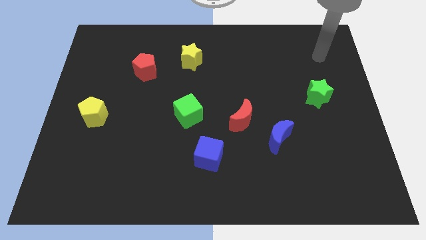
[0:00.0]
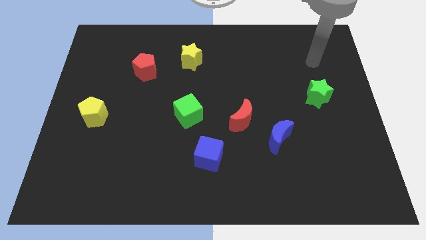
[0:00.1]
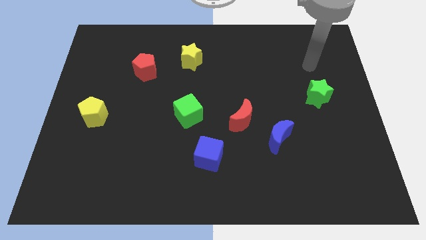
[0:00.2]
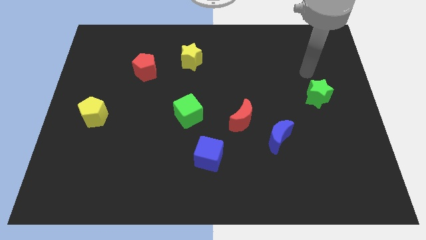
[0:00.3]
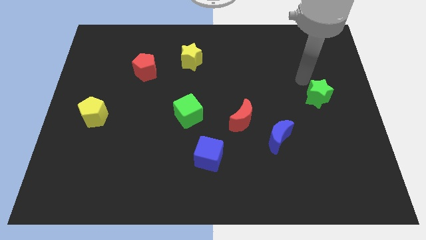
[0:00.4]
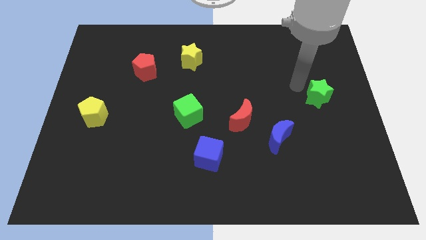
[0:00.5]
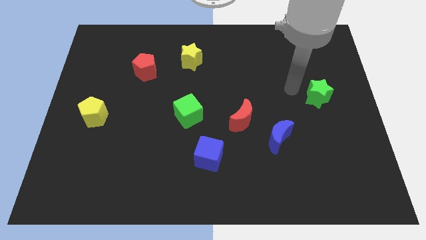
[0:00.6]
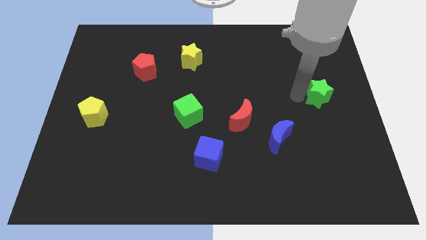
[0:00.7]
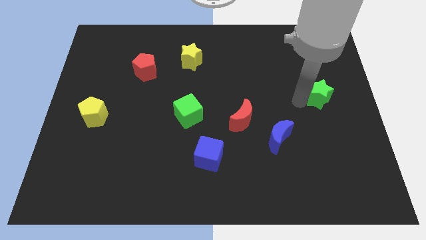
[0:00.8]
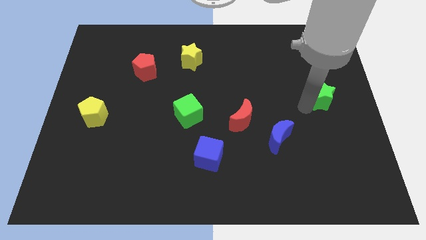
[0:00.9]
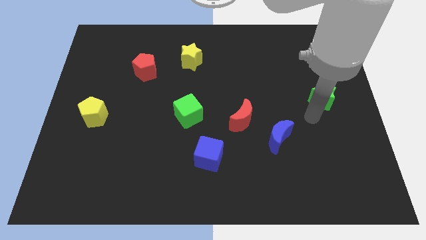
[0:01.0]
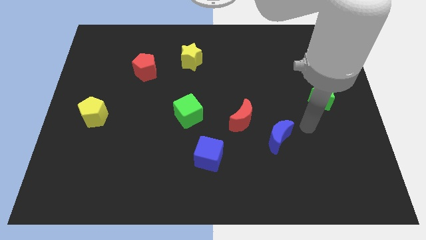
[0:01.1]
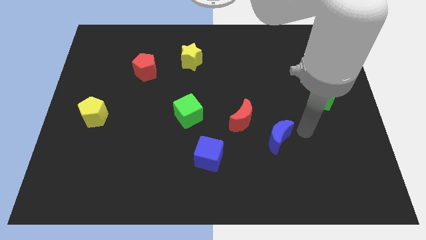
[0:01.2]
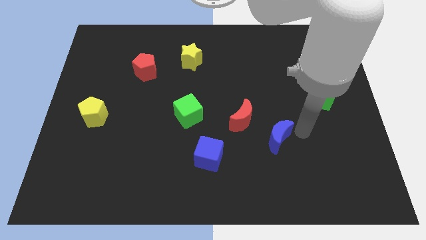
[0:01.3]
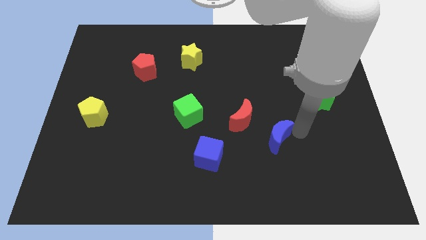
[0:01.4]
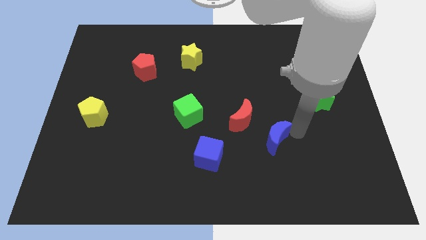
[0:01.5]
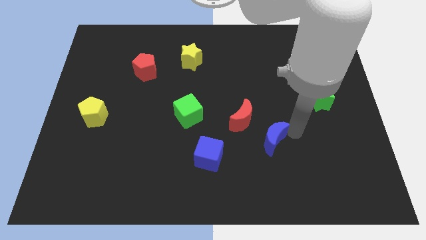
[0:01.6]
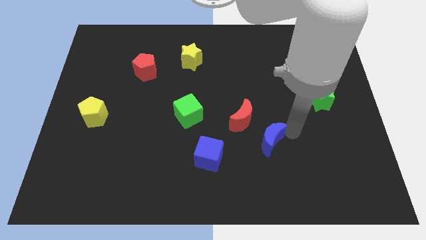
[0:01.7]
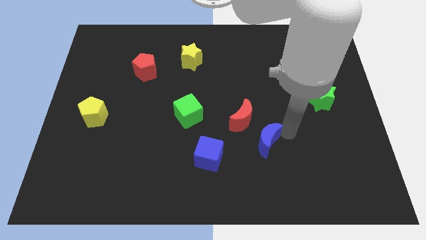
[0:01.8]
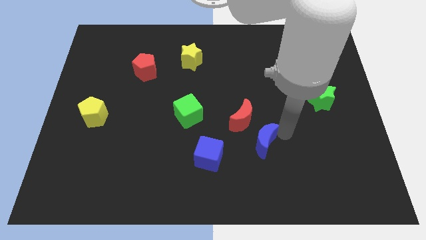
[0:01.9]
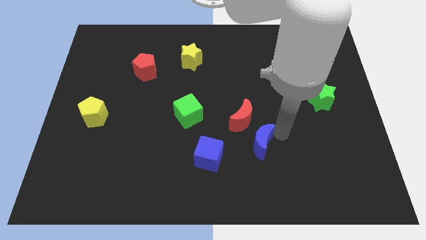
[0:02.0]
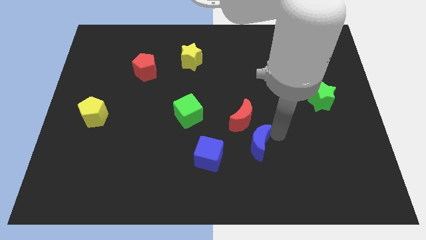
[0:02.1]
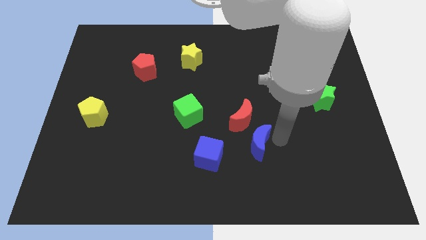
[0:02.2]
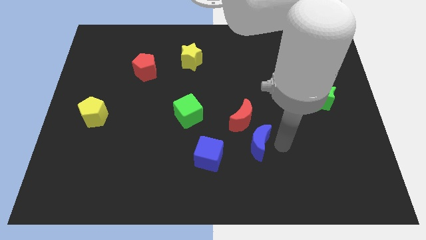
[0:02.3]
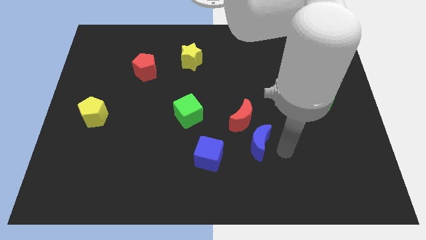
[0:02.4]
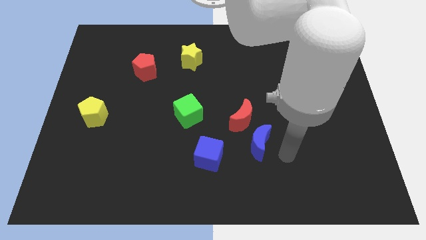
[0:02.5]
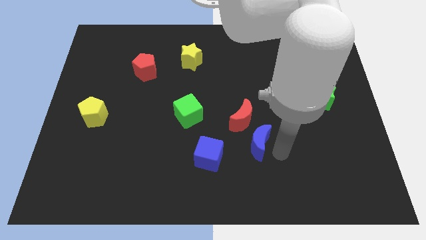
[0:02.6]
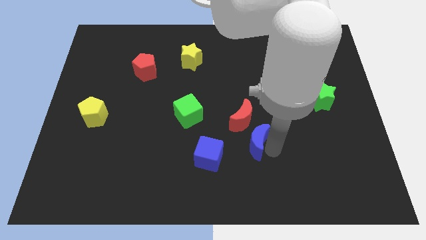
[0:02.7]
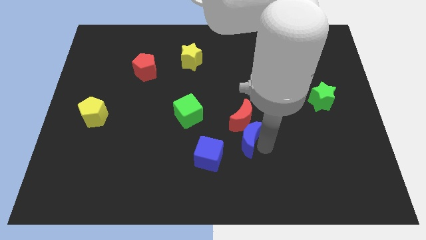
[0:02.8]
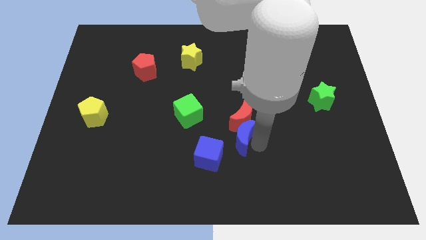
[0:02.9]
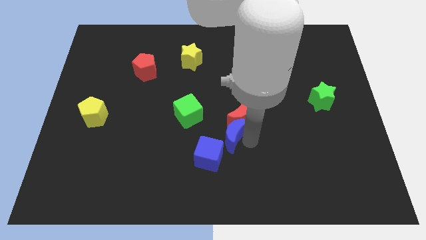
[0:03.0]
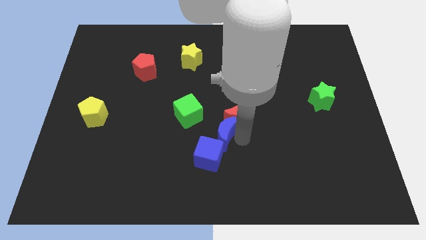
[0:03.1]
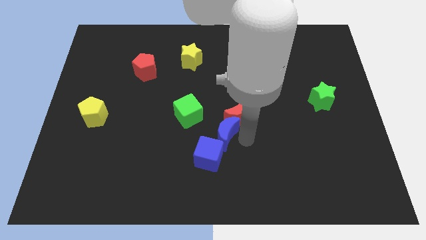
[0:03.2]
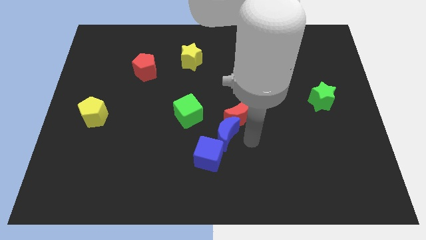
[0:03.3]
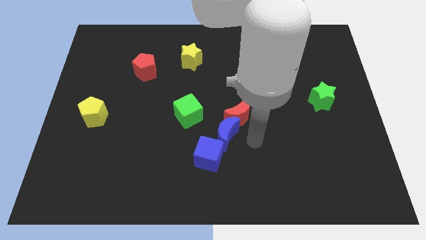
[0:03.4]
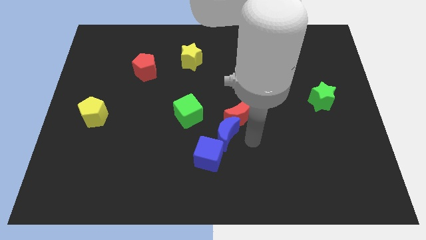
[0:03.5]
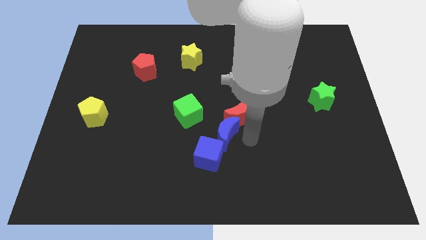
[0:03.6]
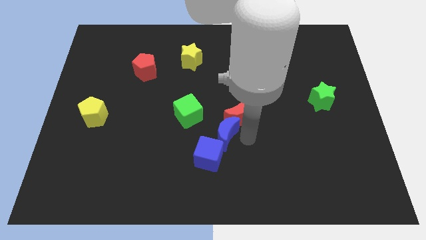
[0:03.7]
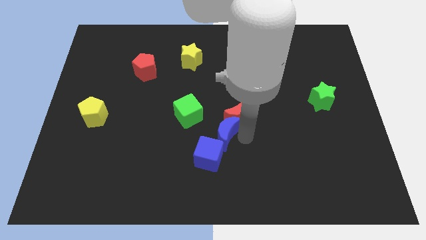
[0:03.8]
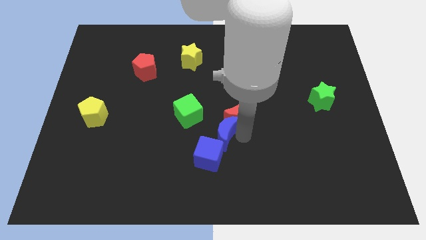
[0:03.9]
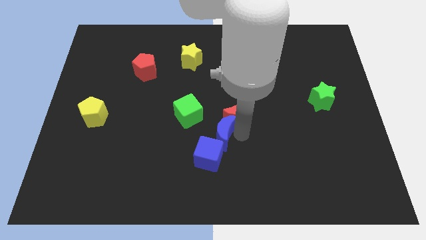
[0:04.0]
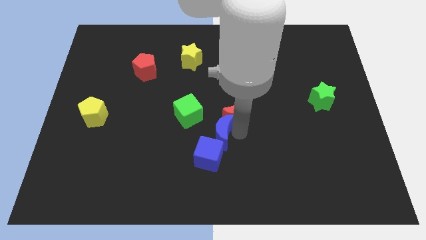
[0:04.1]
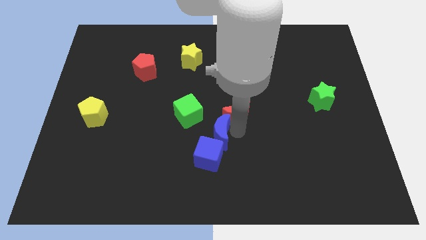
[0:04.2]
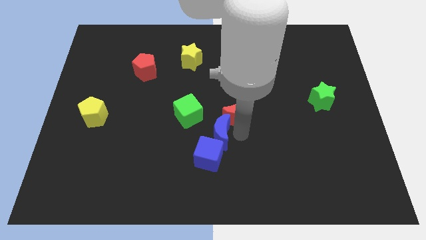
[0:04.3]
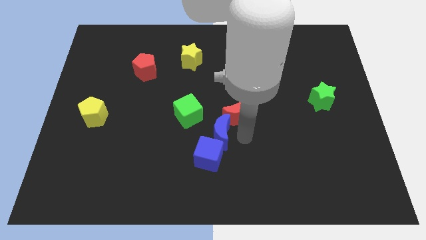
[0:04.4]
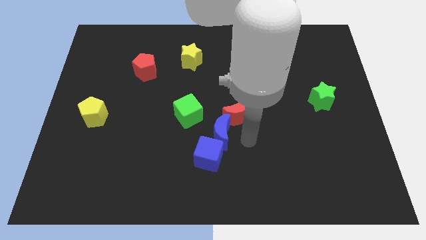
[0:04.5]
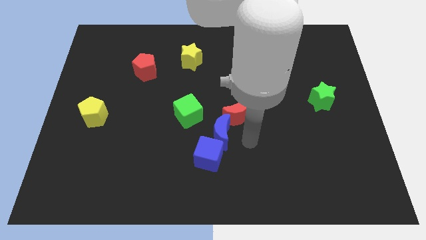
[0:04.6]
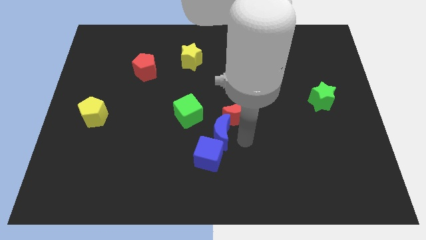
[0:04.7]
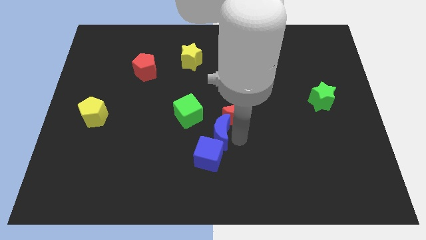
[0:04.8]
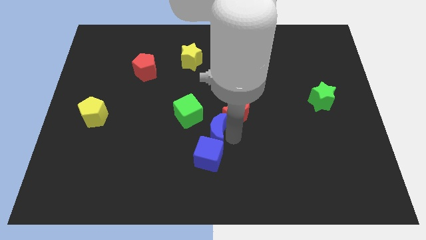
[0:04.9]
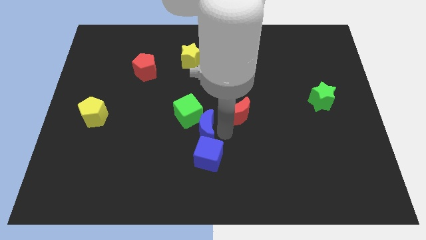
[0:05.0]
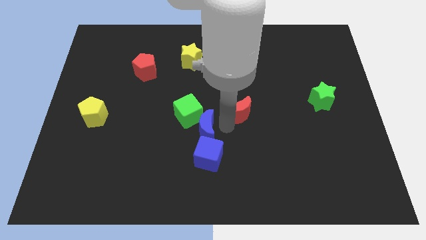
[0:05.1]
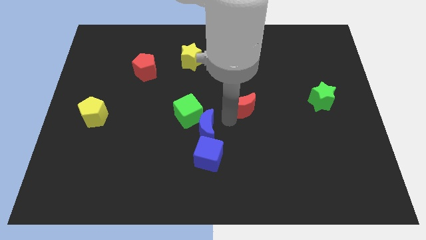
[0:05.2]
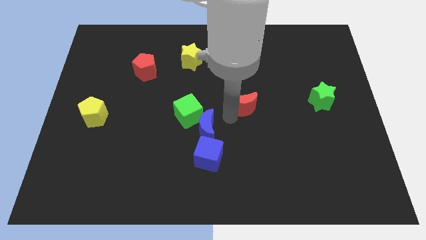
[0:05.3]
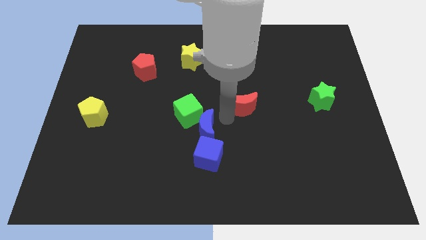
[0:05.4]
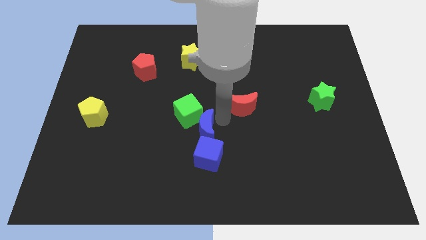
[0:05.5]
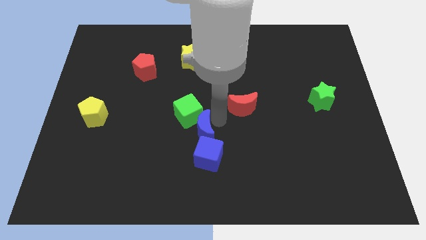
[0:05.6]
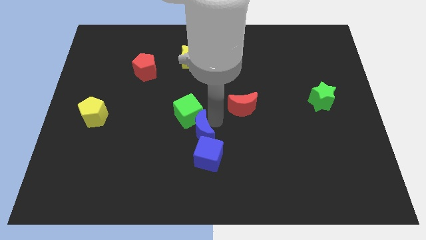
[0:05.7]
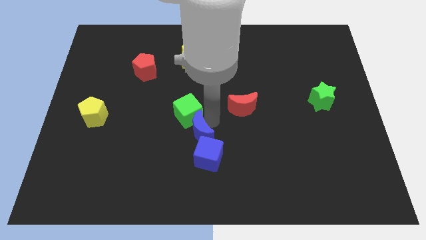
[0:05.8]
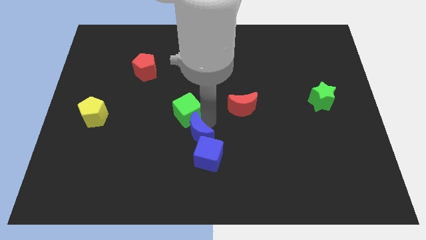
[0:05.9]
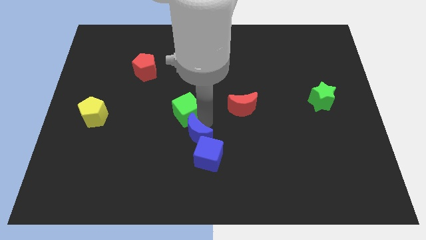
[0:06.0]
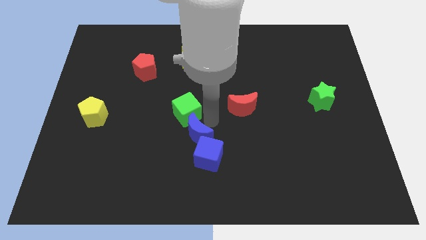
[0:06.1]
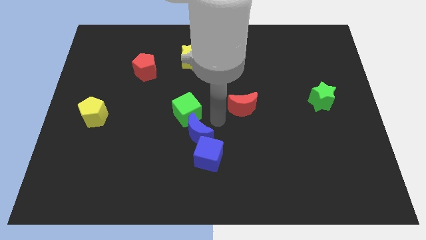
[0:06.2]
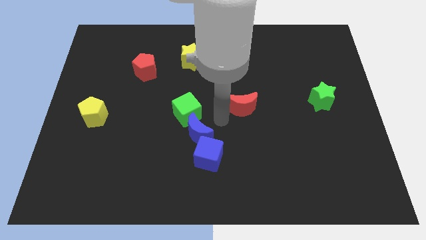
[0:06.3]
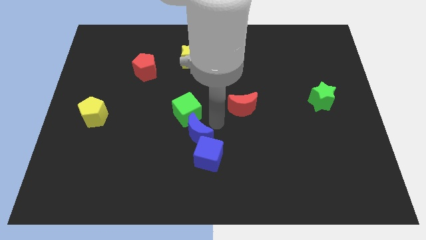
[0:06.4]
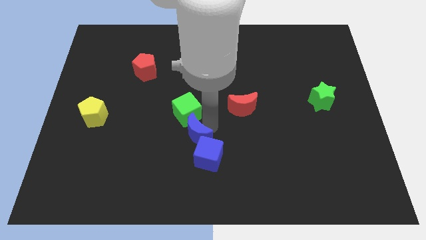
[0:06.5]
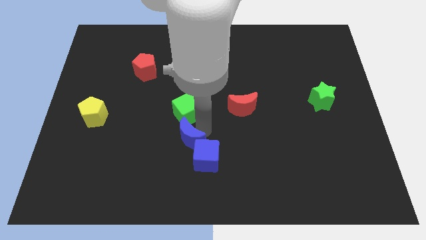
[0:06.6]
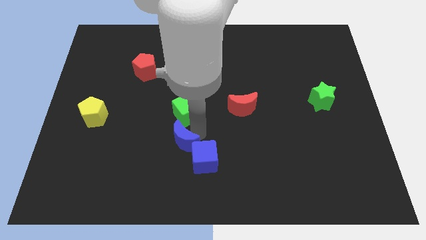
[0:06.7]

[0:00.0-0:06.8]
slide the blue moon to the left of the blue cube
